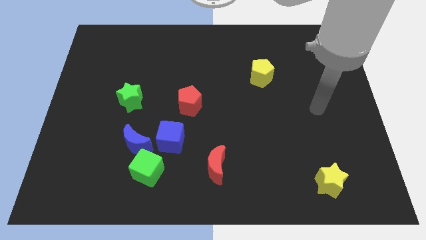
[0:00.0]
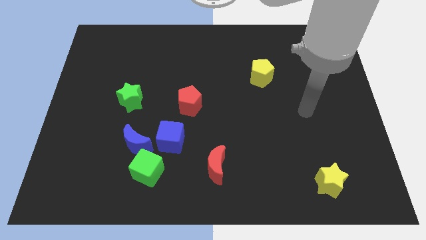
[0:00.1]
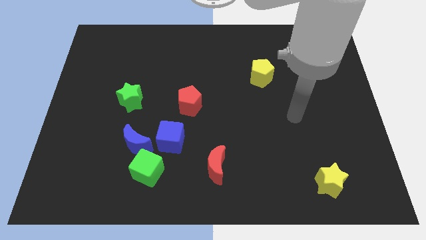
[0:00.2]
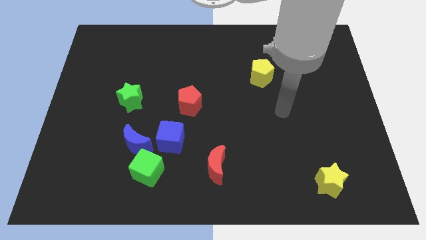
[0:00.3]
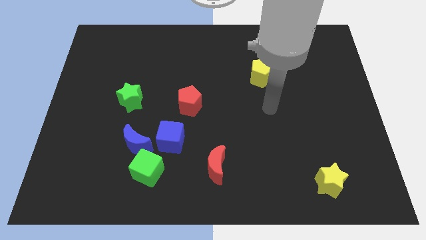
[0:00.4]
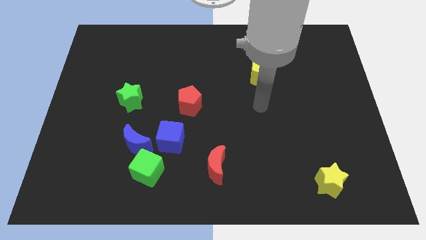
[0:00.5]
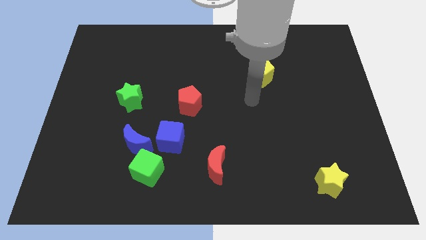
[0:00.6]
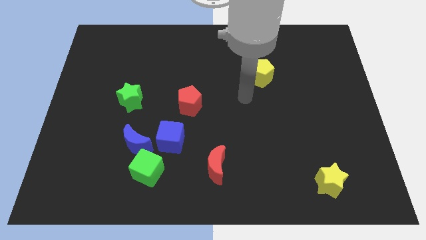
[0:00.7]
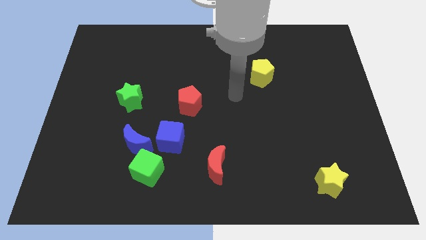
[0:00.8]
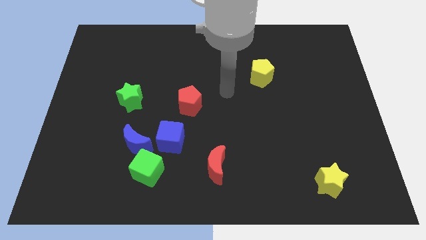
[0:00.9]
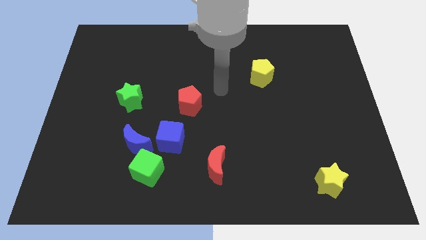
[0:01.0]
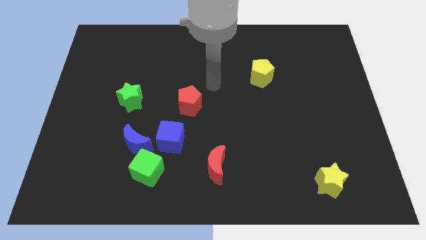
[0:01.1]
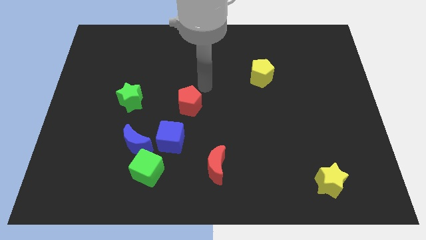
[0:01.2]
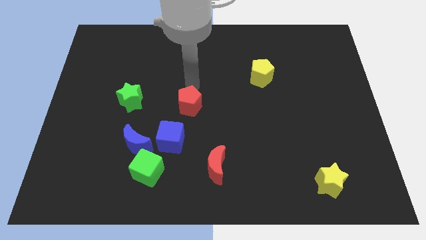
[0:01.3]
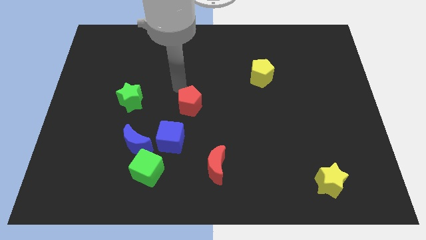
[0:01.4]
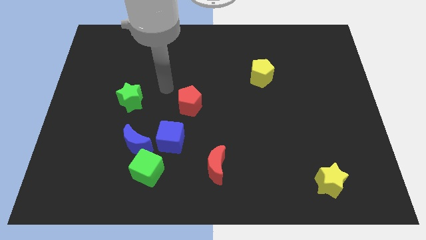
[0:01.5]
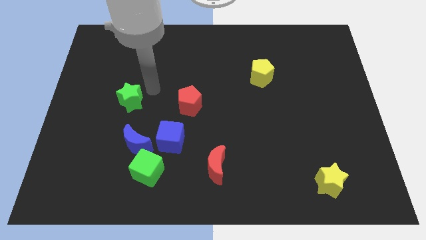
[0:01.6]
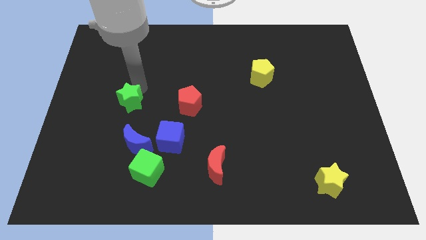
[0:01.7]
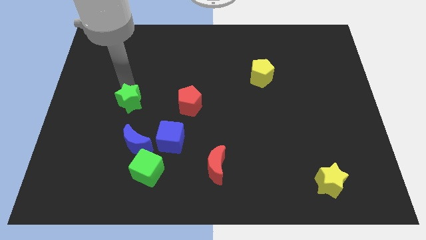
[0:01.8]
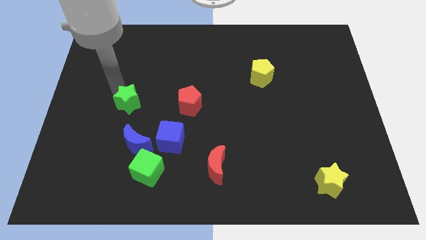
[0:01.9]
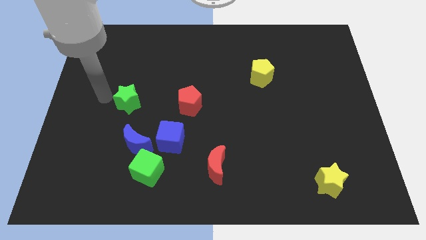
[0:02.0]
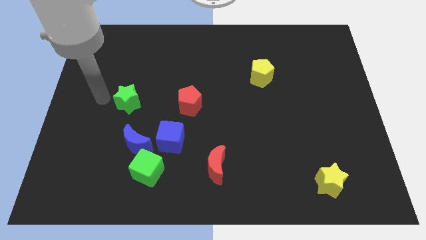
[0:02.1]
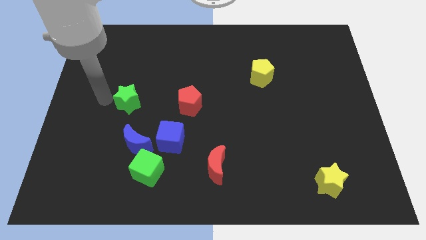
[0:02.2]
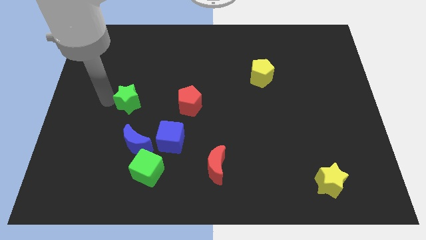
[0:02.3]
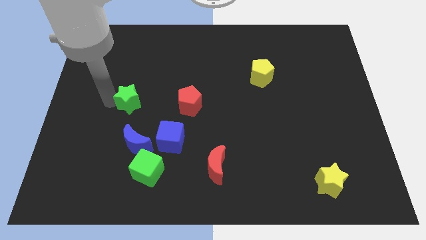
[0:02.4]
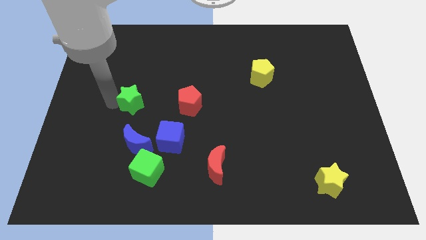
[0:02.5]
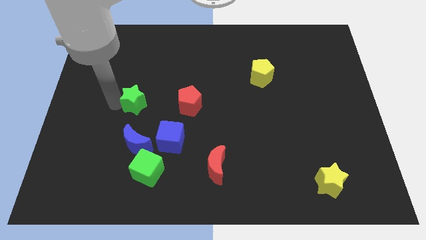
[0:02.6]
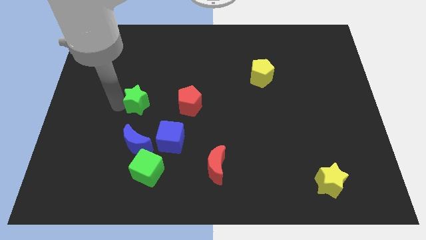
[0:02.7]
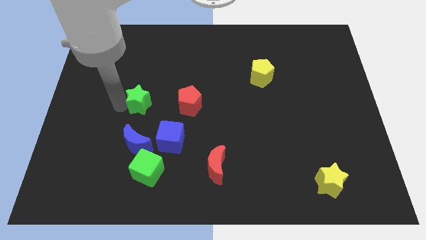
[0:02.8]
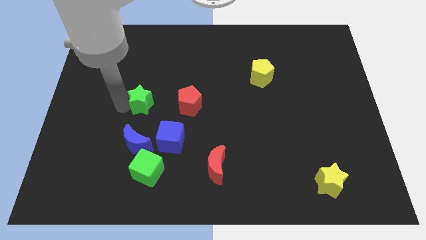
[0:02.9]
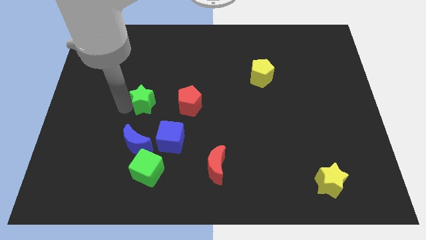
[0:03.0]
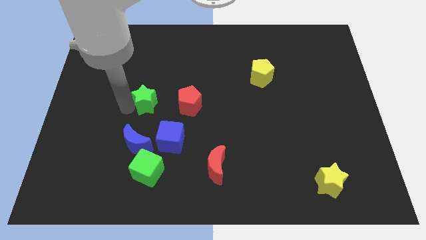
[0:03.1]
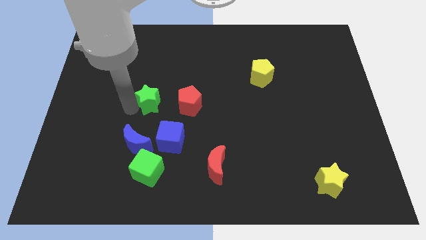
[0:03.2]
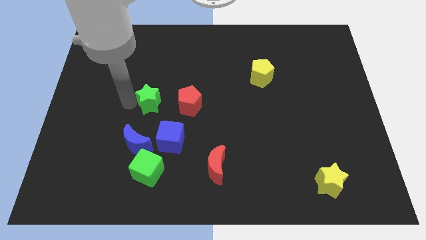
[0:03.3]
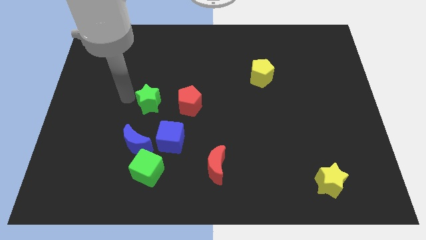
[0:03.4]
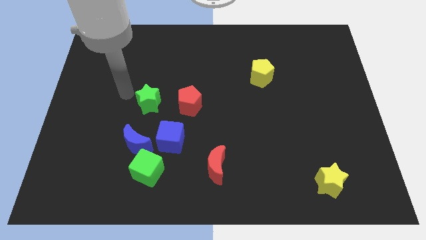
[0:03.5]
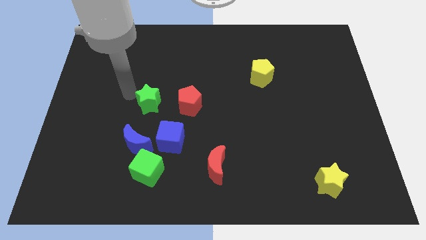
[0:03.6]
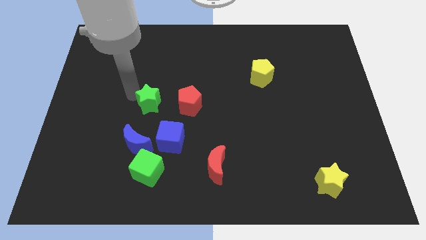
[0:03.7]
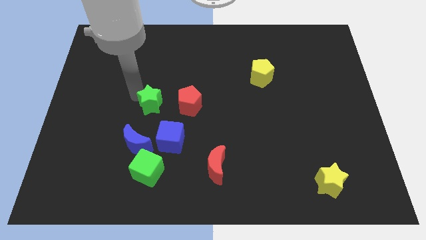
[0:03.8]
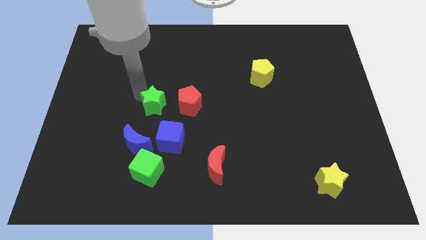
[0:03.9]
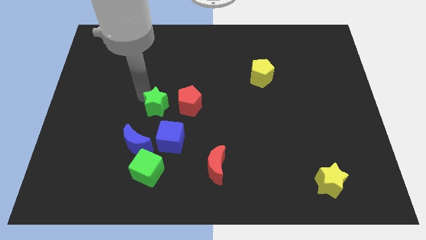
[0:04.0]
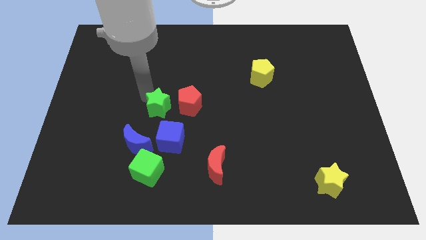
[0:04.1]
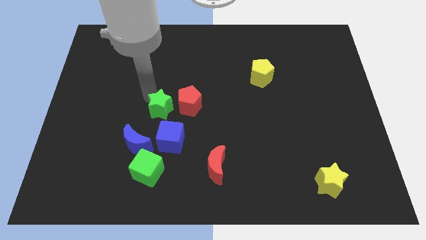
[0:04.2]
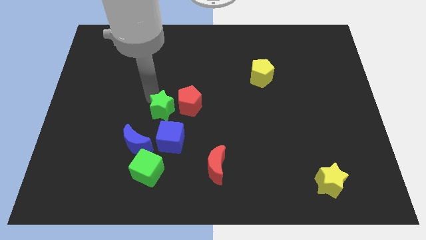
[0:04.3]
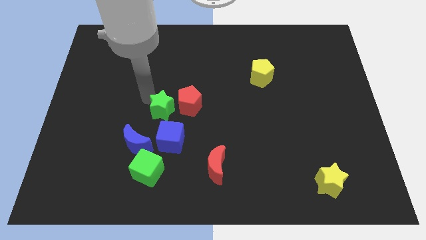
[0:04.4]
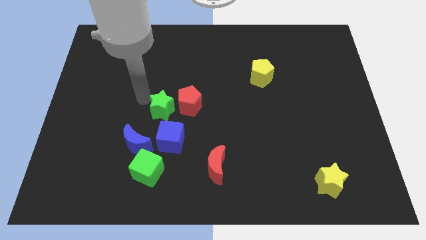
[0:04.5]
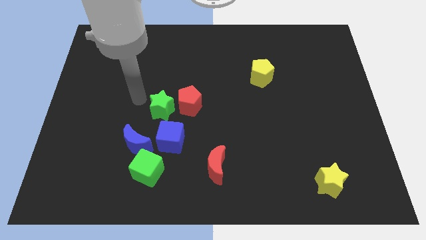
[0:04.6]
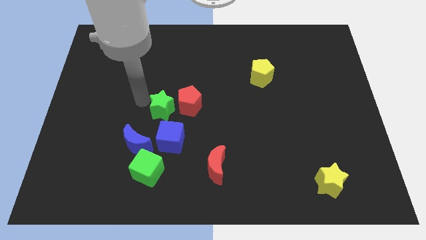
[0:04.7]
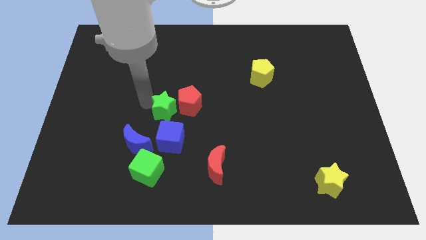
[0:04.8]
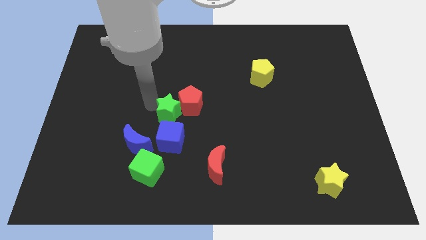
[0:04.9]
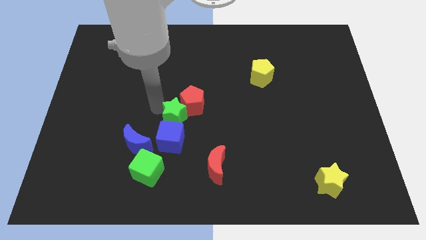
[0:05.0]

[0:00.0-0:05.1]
slide the green star diagonally up and to the right of the blue cube

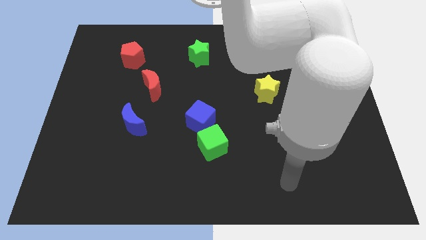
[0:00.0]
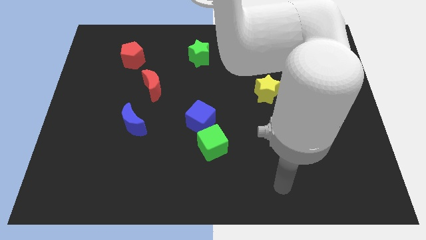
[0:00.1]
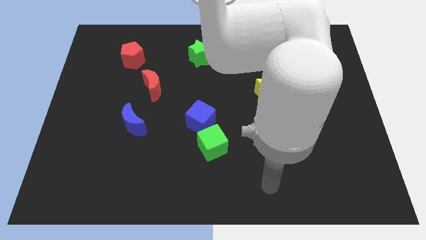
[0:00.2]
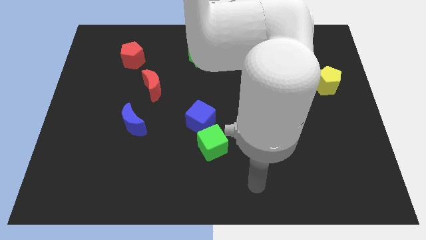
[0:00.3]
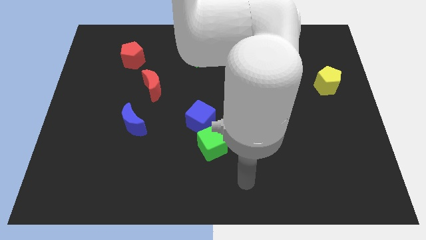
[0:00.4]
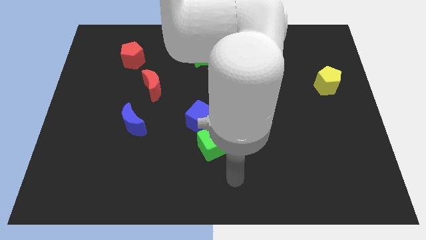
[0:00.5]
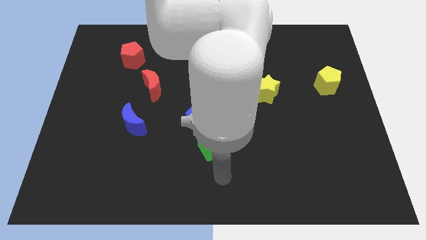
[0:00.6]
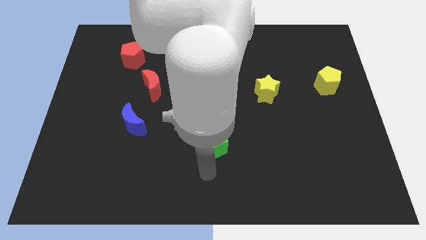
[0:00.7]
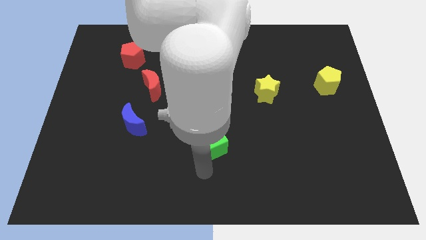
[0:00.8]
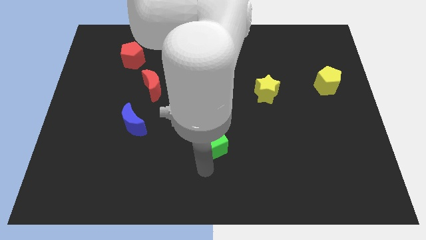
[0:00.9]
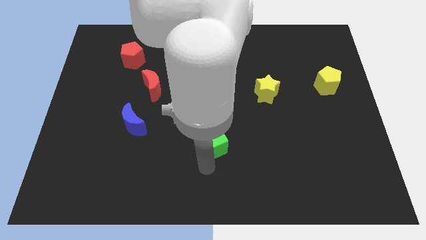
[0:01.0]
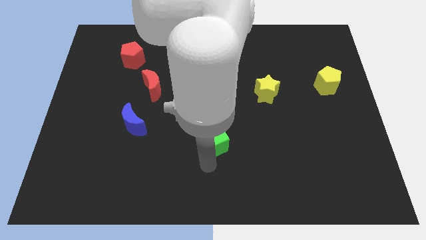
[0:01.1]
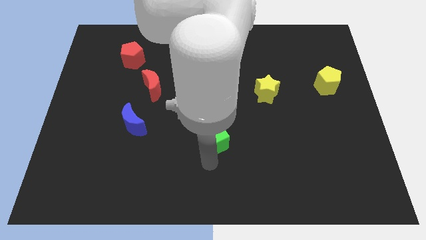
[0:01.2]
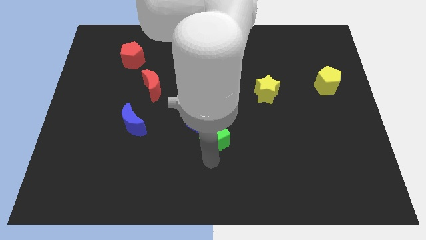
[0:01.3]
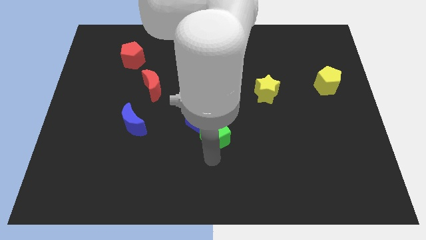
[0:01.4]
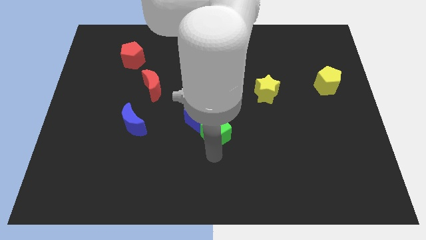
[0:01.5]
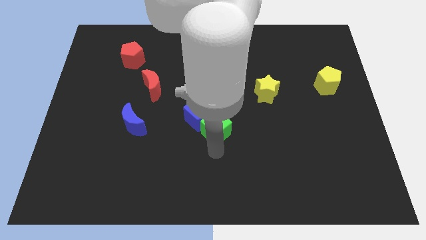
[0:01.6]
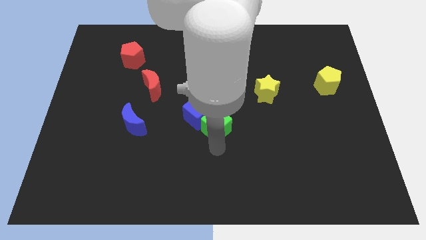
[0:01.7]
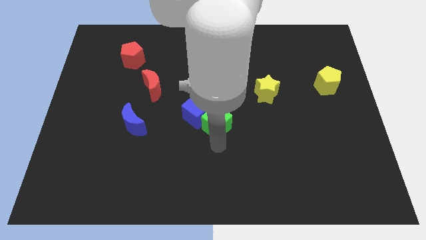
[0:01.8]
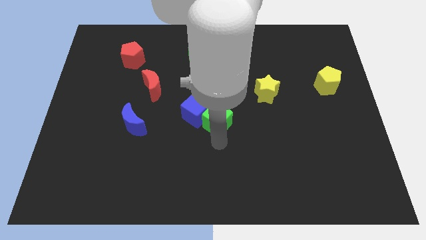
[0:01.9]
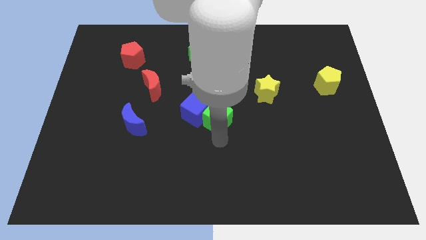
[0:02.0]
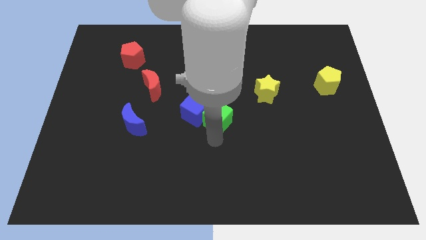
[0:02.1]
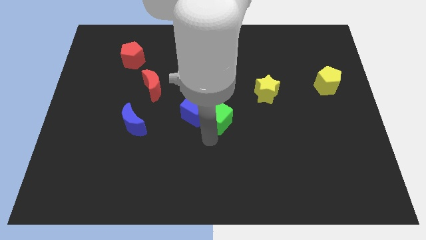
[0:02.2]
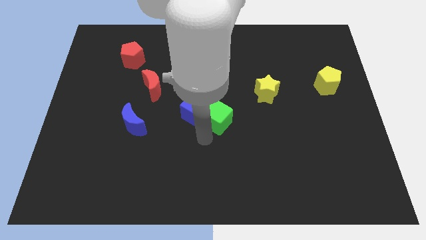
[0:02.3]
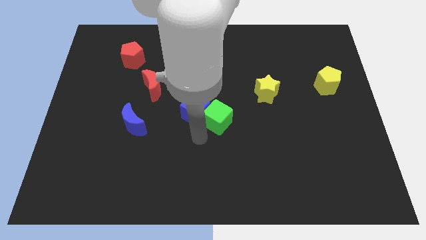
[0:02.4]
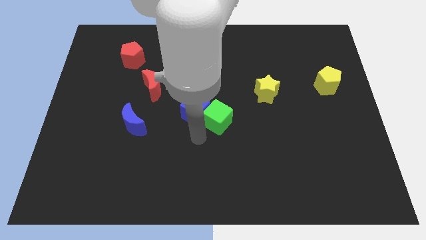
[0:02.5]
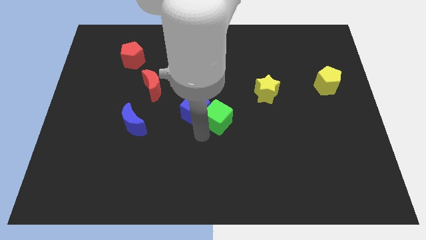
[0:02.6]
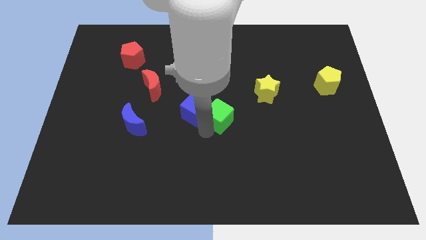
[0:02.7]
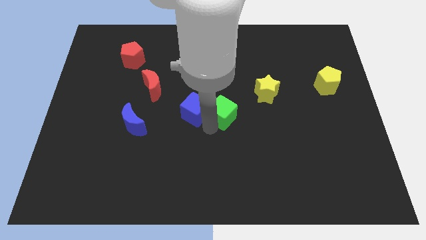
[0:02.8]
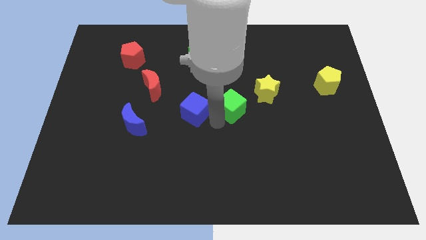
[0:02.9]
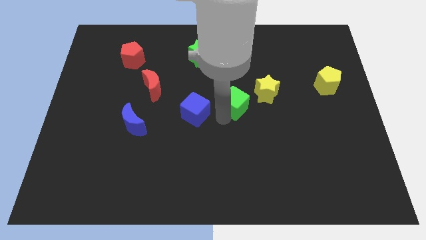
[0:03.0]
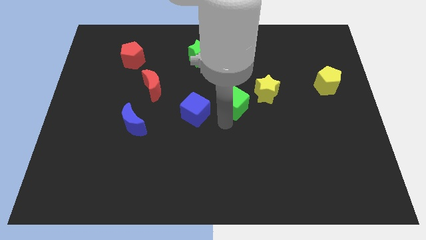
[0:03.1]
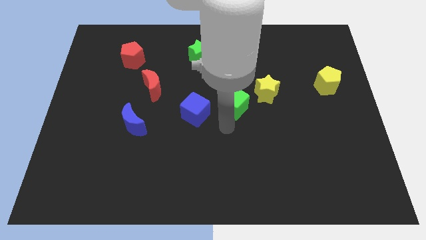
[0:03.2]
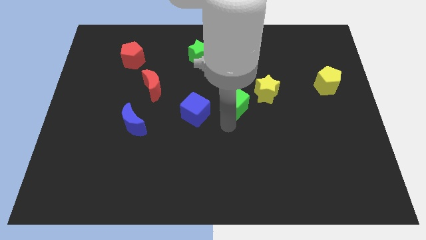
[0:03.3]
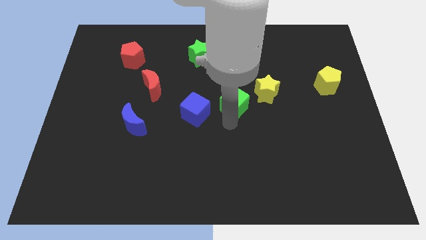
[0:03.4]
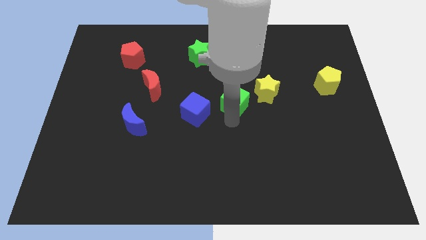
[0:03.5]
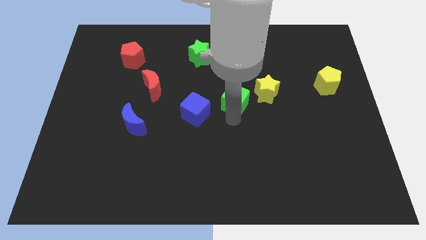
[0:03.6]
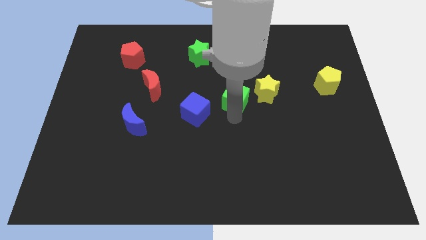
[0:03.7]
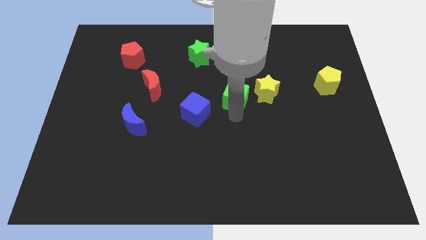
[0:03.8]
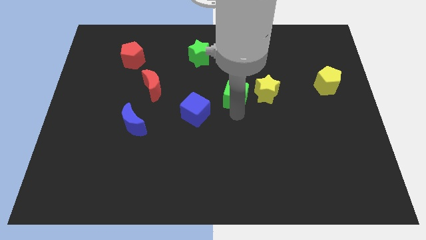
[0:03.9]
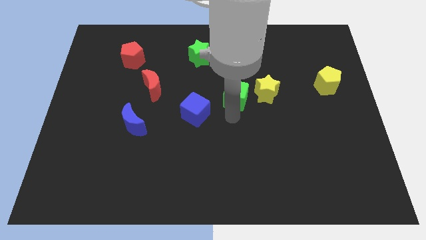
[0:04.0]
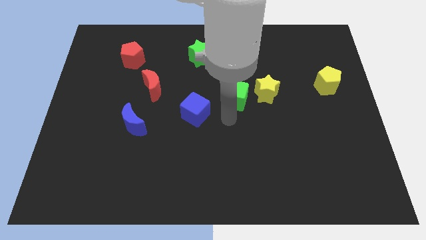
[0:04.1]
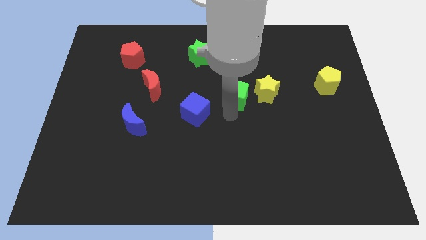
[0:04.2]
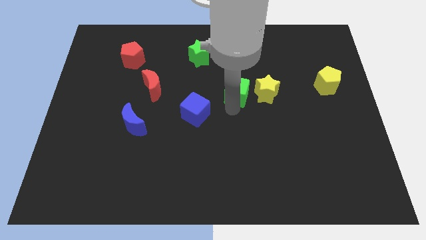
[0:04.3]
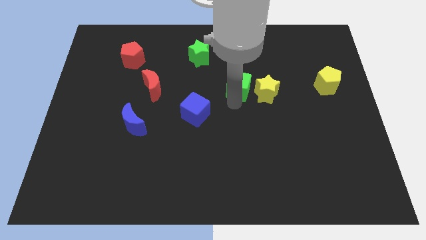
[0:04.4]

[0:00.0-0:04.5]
move the green cube to the top left side of the yellow star
